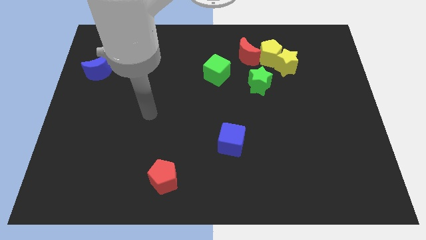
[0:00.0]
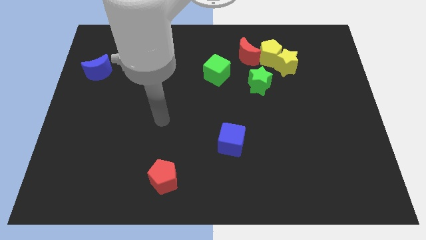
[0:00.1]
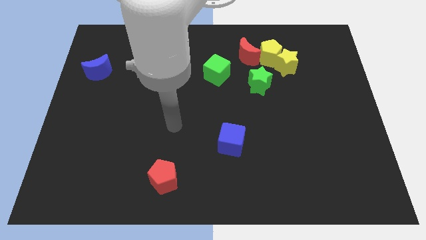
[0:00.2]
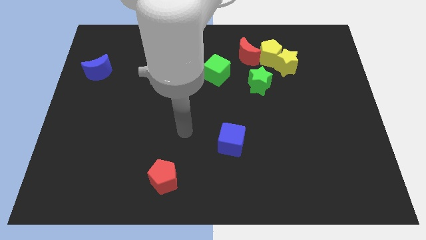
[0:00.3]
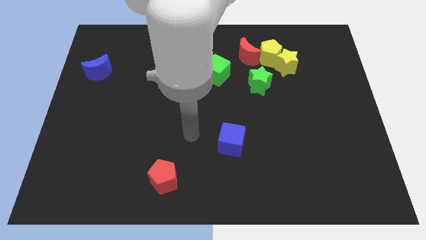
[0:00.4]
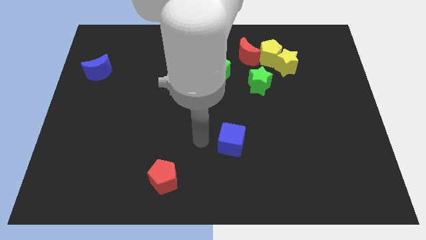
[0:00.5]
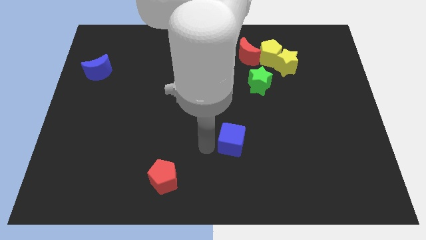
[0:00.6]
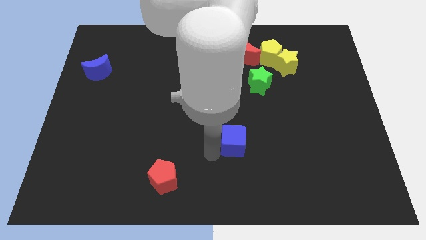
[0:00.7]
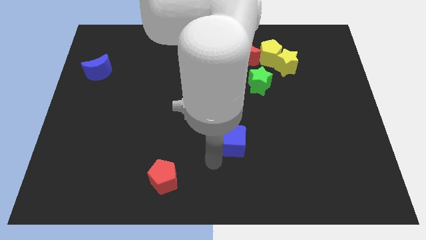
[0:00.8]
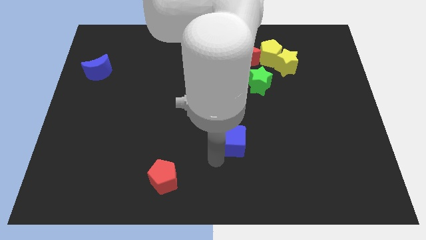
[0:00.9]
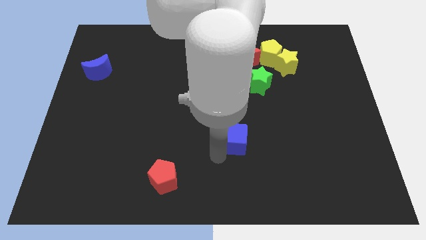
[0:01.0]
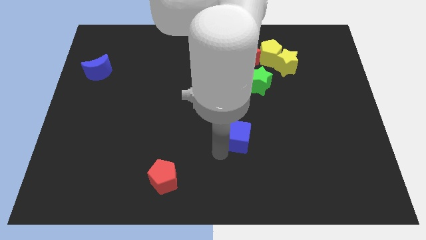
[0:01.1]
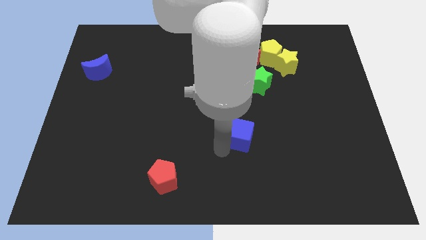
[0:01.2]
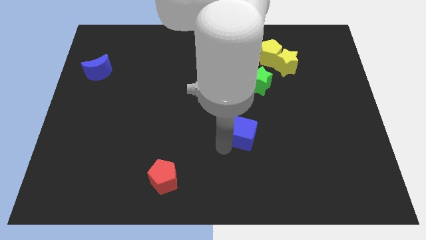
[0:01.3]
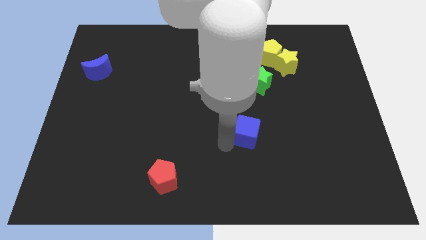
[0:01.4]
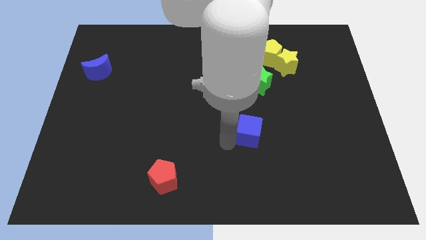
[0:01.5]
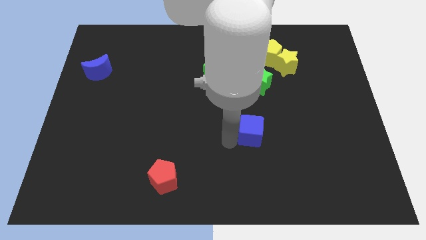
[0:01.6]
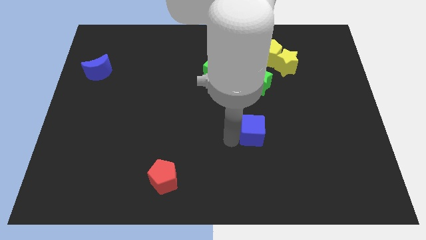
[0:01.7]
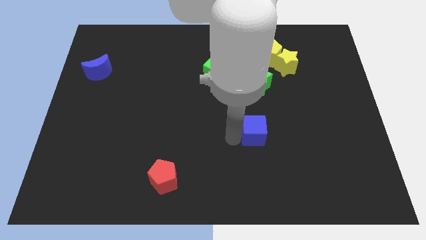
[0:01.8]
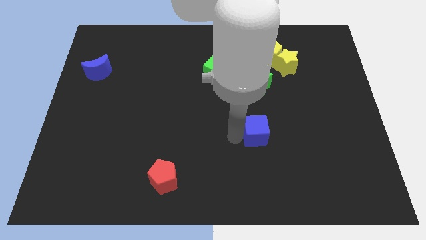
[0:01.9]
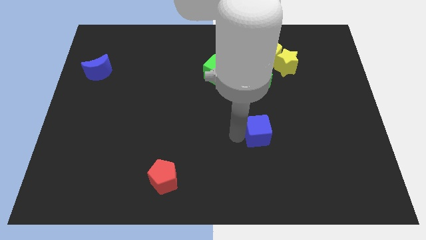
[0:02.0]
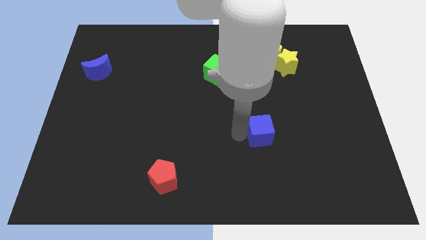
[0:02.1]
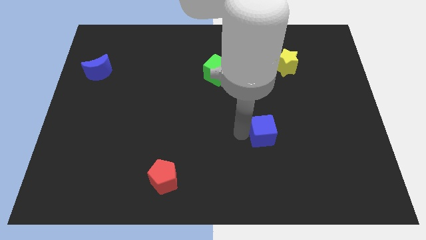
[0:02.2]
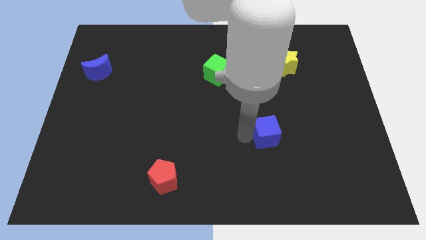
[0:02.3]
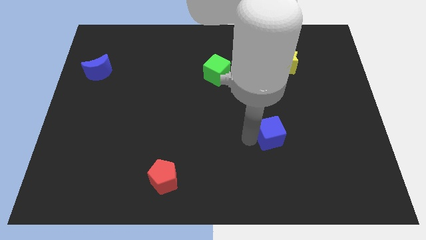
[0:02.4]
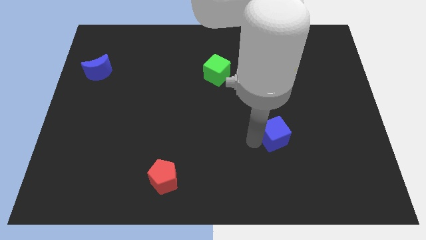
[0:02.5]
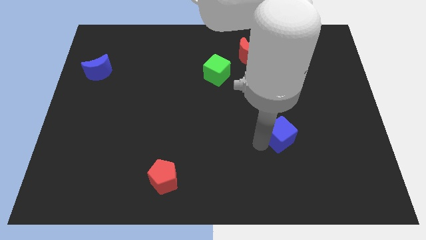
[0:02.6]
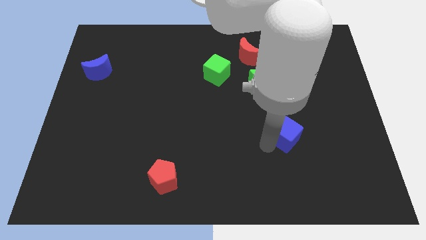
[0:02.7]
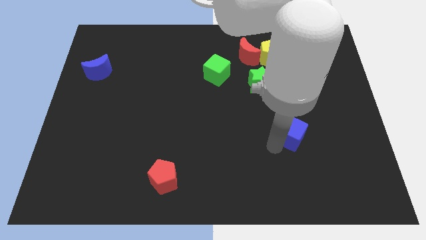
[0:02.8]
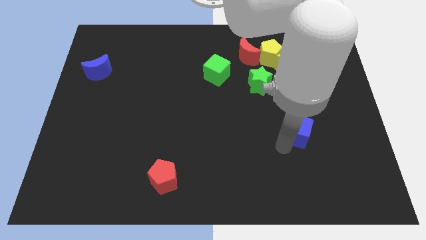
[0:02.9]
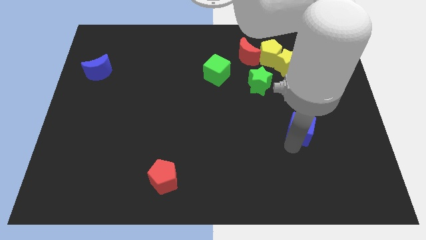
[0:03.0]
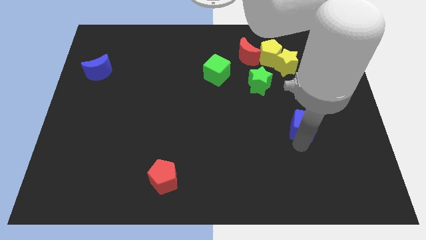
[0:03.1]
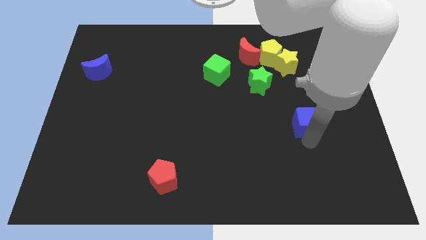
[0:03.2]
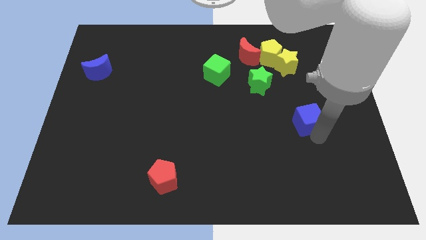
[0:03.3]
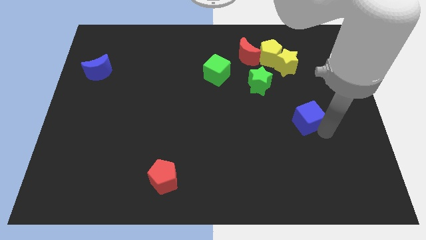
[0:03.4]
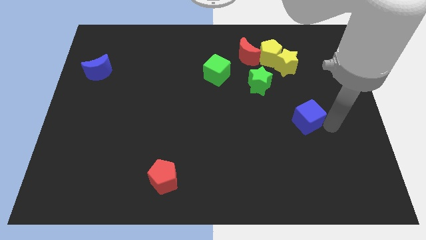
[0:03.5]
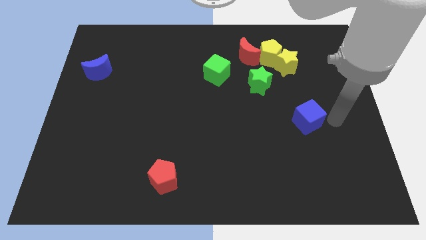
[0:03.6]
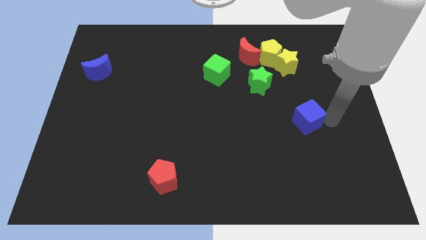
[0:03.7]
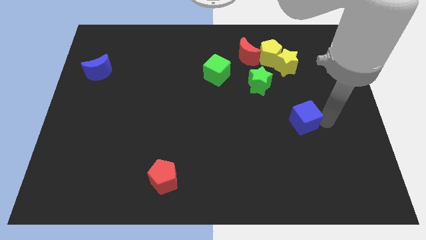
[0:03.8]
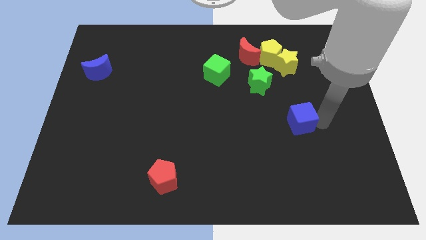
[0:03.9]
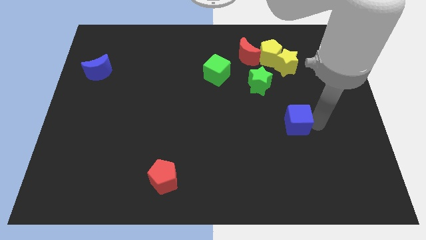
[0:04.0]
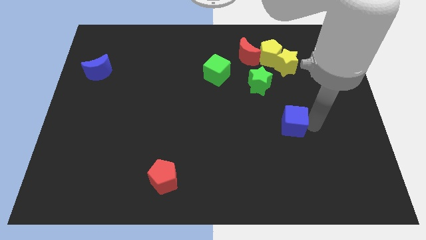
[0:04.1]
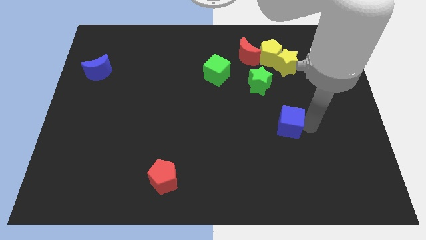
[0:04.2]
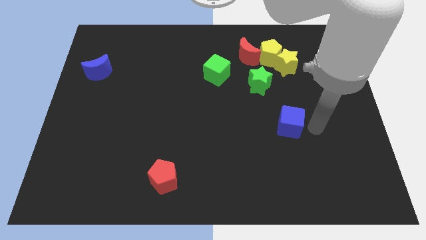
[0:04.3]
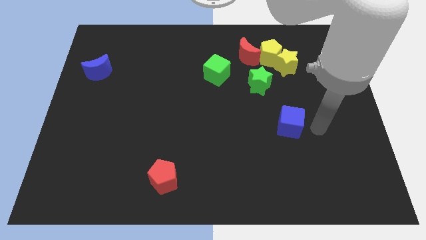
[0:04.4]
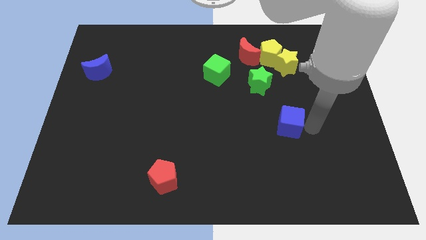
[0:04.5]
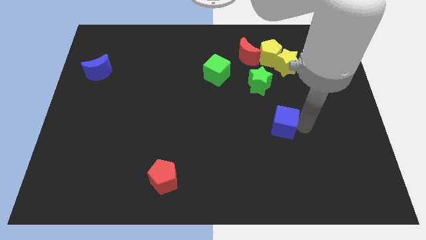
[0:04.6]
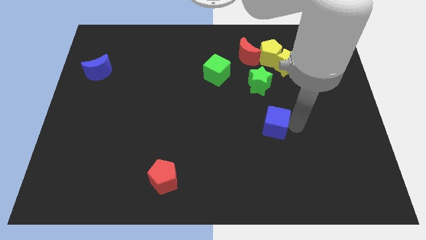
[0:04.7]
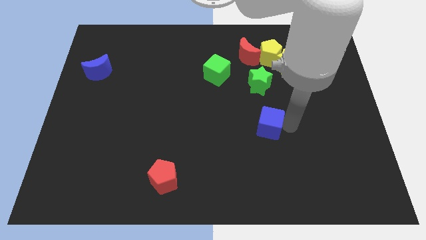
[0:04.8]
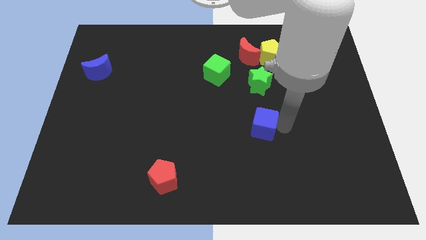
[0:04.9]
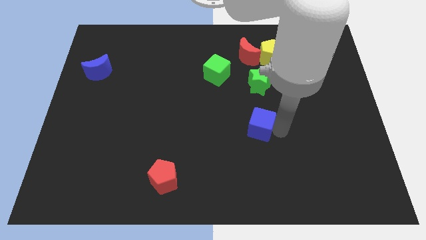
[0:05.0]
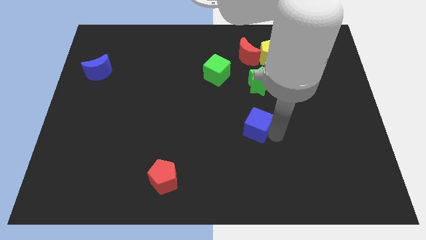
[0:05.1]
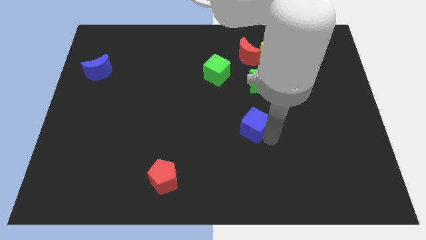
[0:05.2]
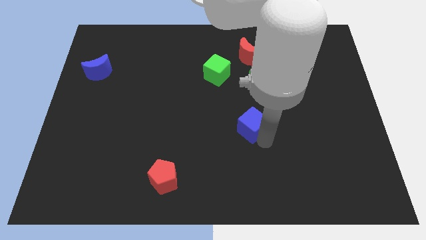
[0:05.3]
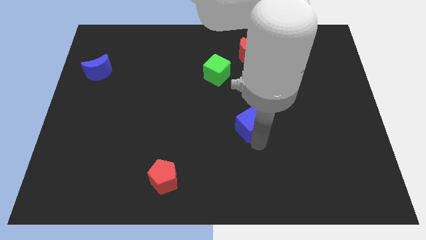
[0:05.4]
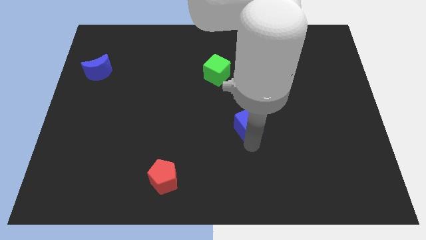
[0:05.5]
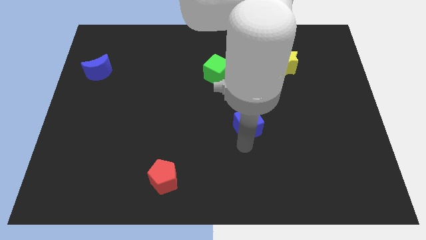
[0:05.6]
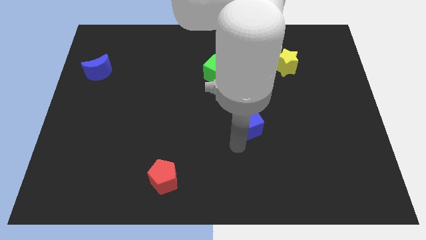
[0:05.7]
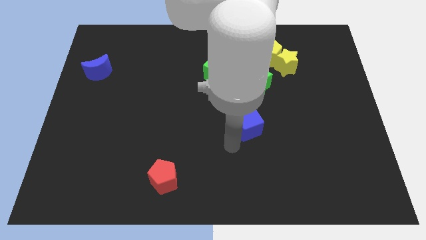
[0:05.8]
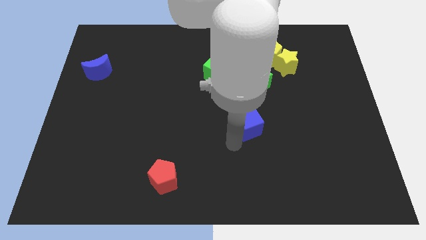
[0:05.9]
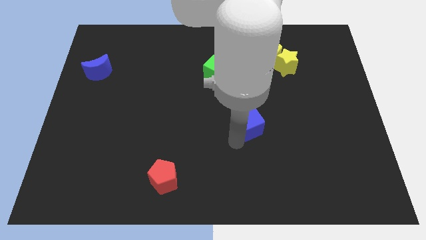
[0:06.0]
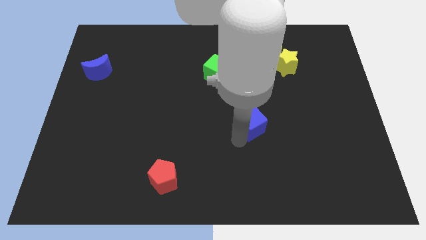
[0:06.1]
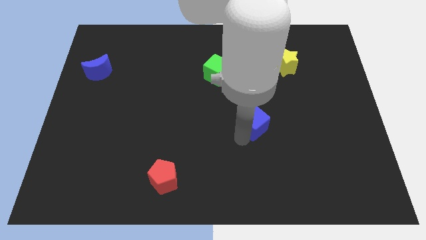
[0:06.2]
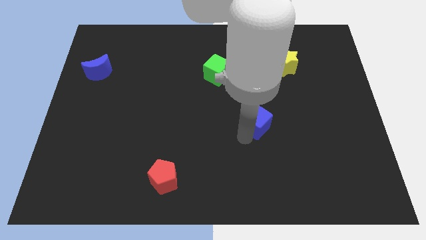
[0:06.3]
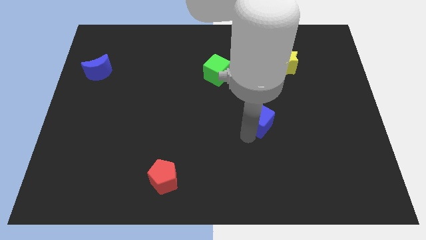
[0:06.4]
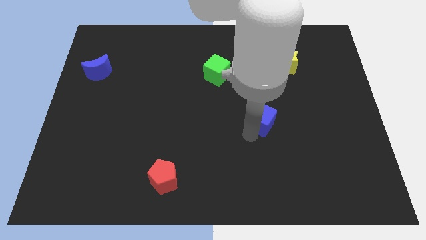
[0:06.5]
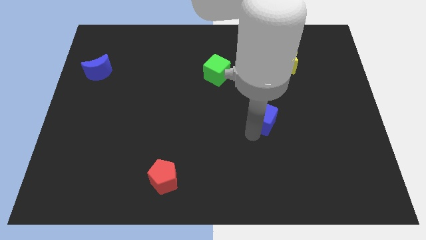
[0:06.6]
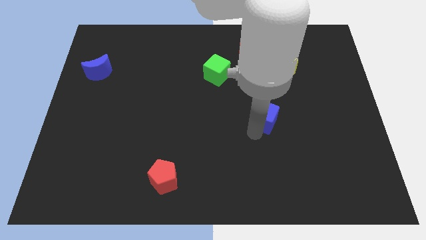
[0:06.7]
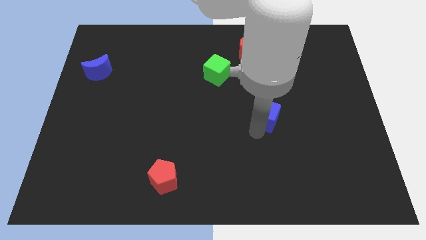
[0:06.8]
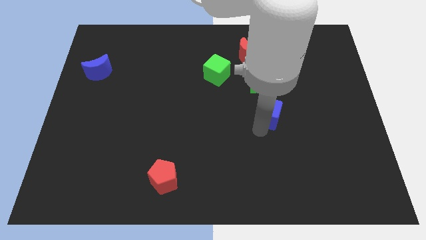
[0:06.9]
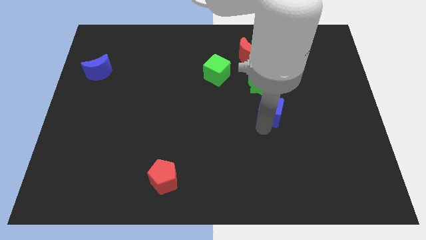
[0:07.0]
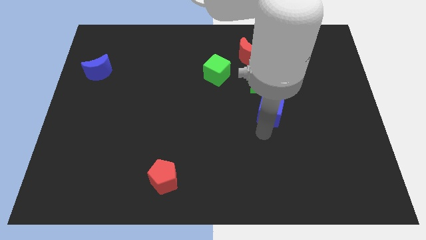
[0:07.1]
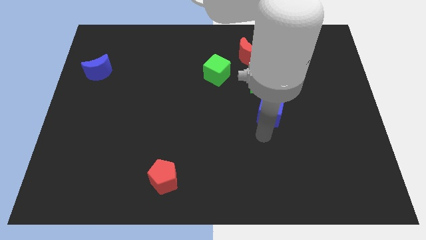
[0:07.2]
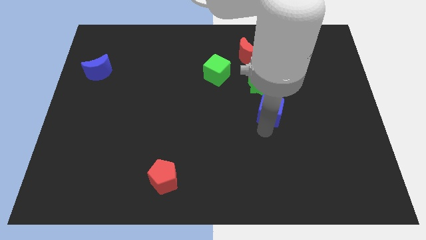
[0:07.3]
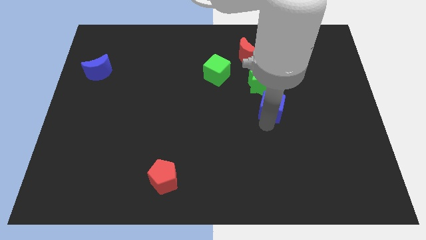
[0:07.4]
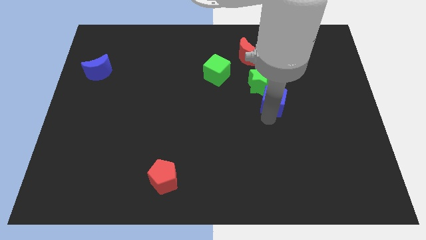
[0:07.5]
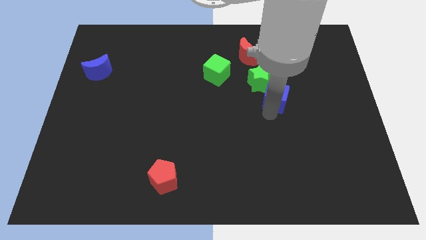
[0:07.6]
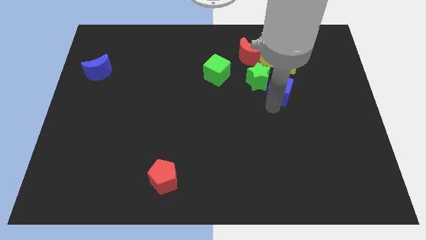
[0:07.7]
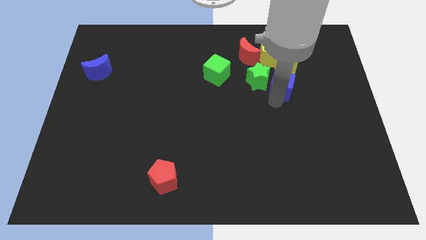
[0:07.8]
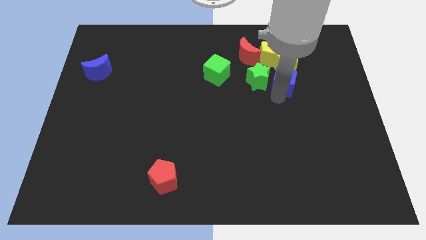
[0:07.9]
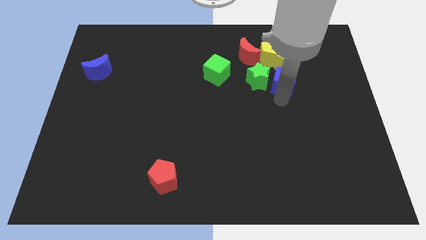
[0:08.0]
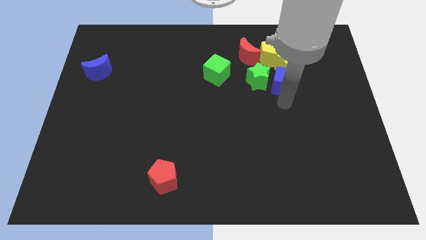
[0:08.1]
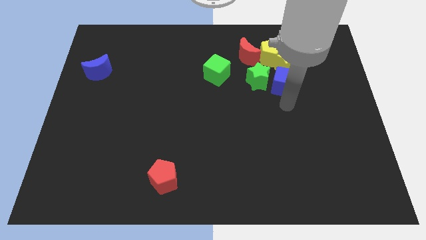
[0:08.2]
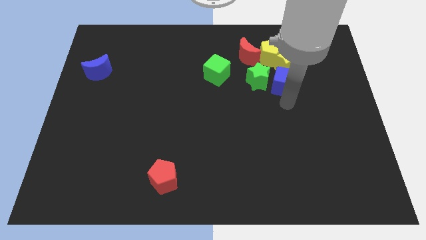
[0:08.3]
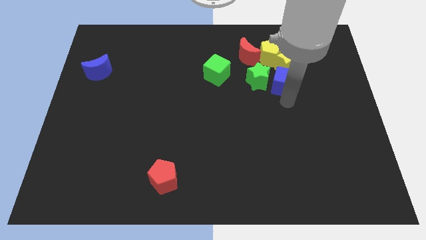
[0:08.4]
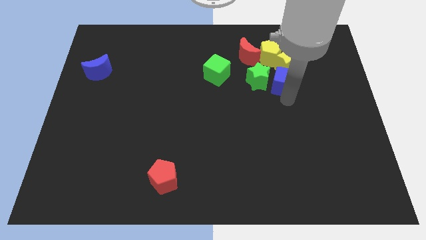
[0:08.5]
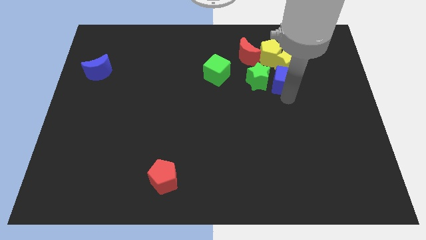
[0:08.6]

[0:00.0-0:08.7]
slide the blue cube close to the yellow star
